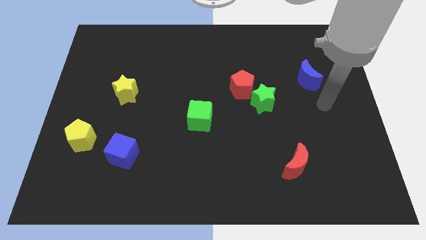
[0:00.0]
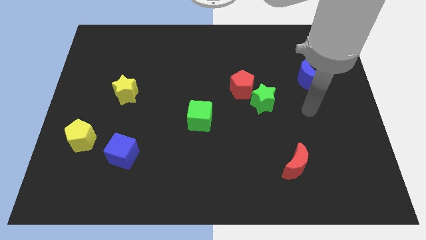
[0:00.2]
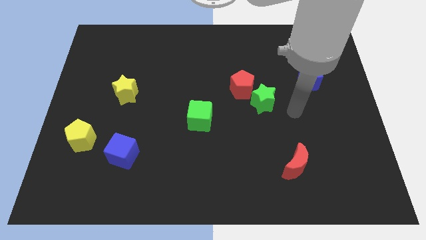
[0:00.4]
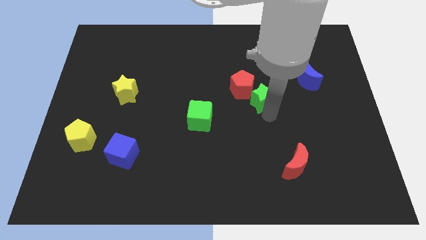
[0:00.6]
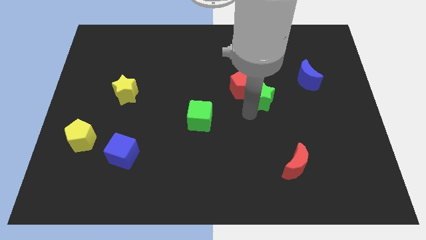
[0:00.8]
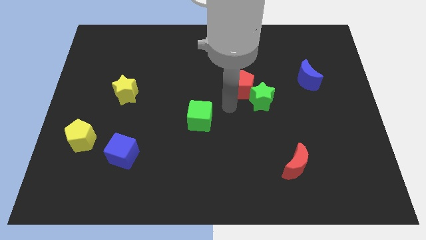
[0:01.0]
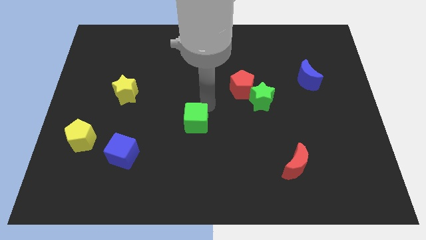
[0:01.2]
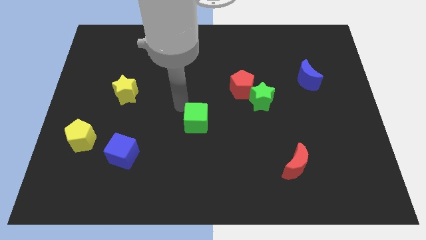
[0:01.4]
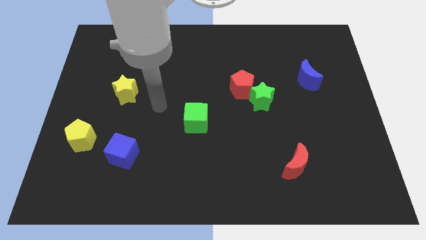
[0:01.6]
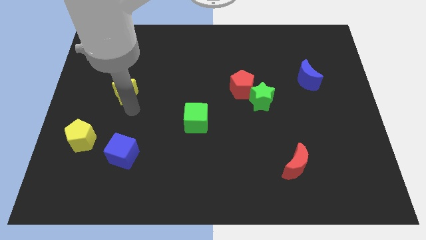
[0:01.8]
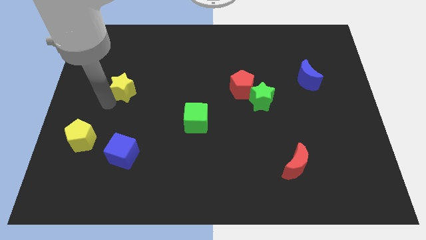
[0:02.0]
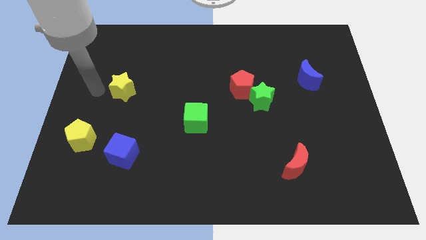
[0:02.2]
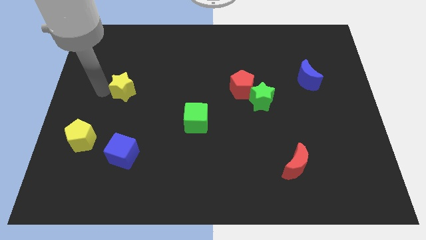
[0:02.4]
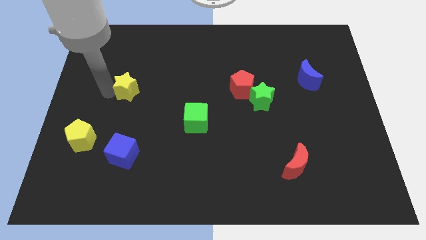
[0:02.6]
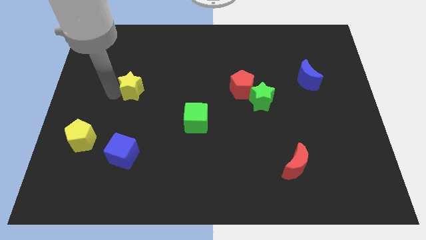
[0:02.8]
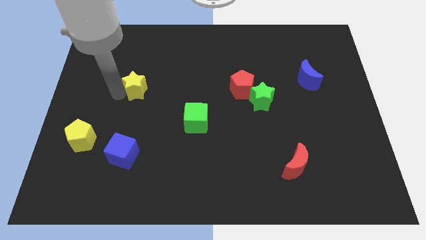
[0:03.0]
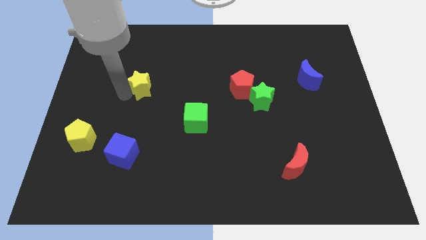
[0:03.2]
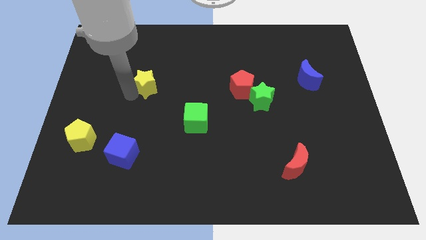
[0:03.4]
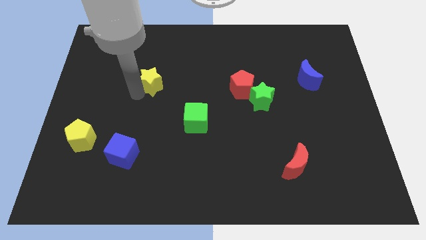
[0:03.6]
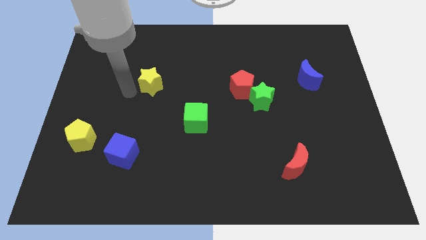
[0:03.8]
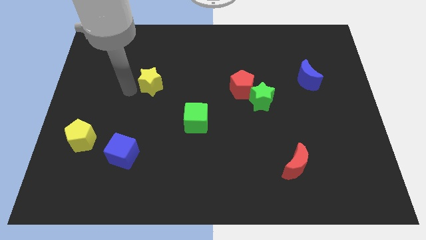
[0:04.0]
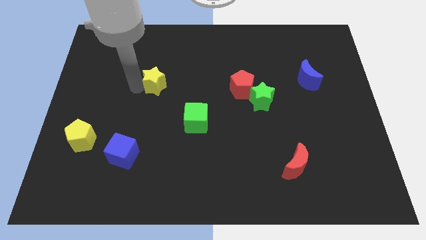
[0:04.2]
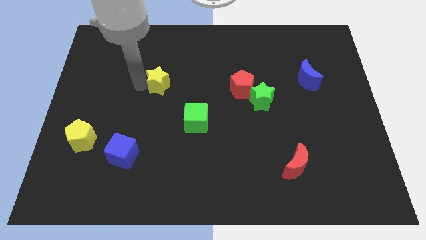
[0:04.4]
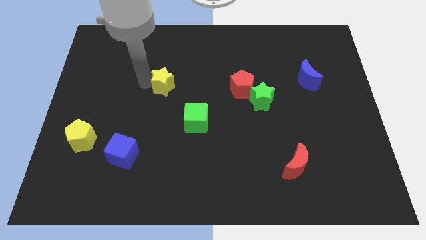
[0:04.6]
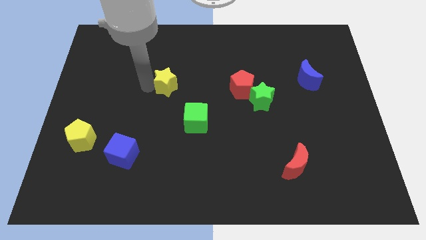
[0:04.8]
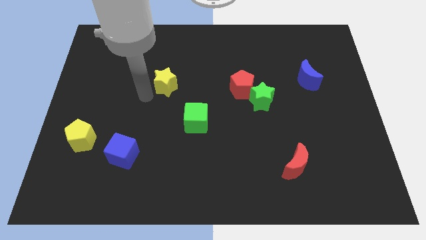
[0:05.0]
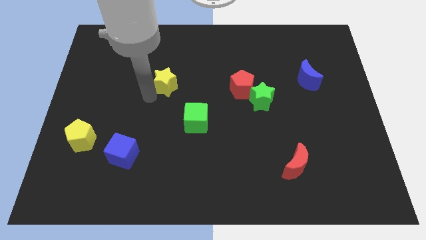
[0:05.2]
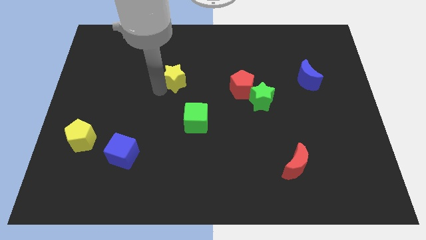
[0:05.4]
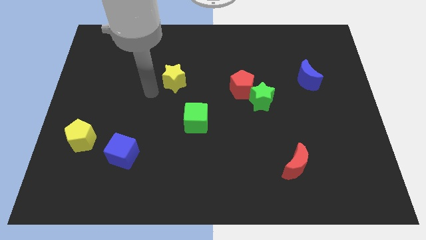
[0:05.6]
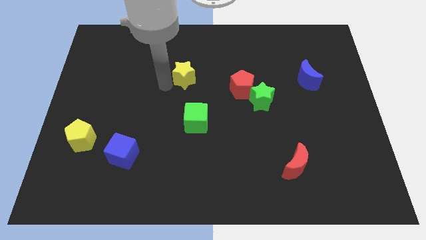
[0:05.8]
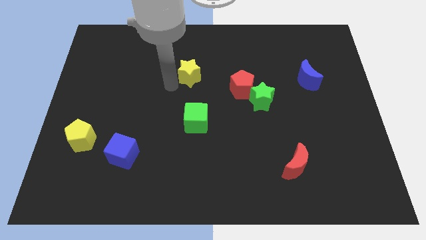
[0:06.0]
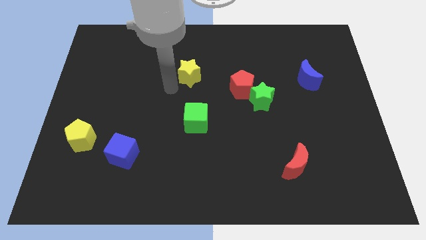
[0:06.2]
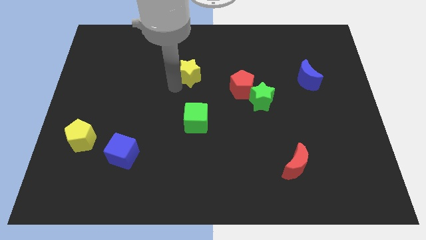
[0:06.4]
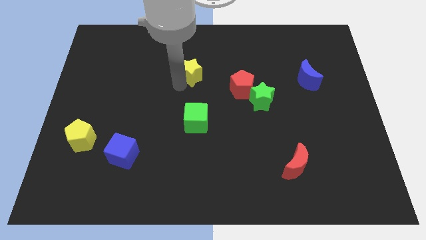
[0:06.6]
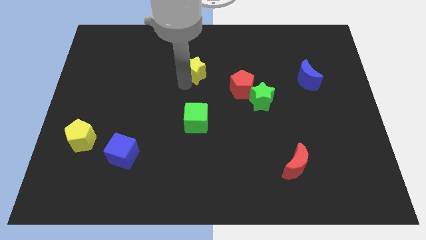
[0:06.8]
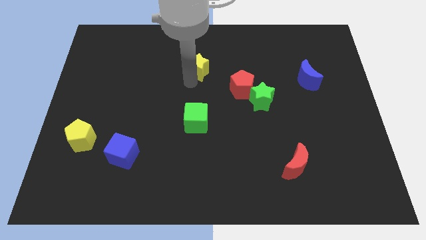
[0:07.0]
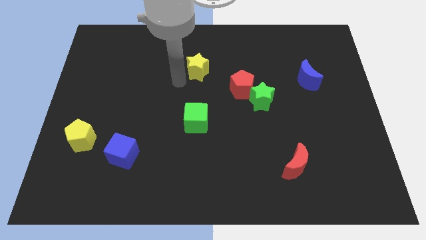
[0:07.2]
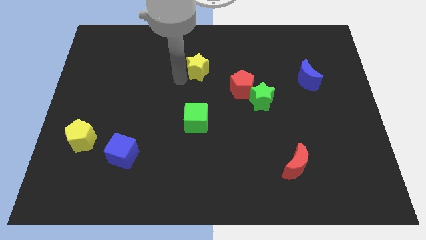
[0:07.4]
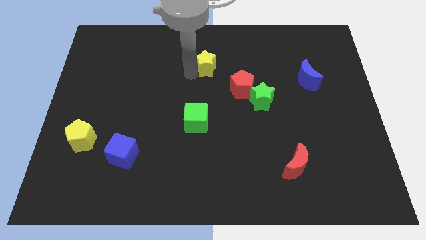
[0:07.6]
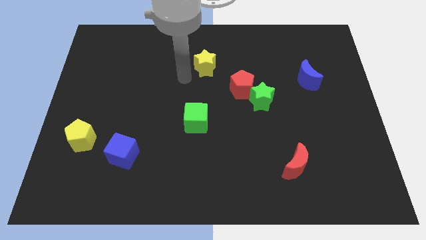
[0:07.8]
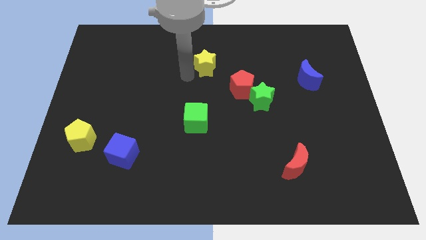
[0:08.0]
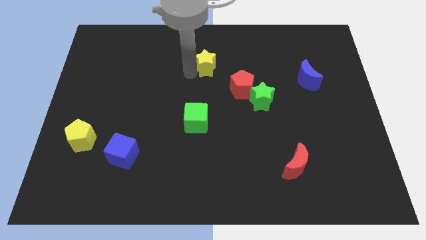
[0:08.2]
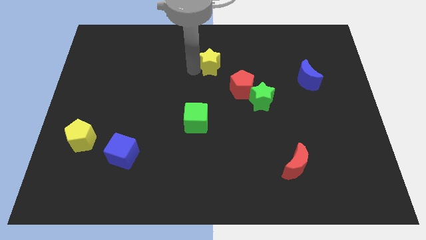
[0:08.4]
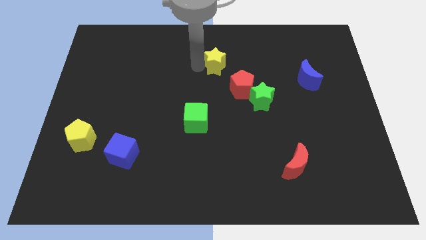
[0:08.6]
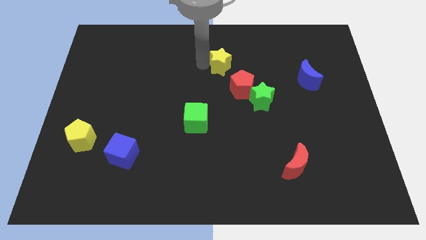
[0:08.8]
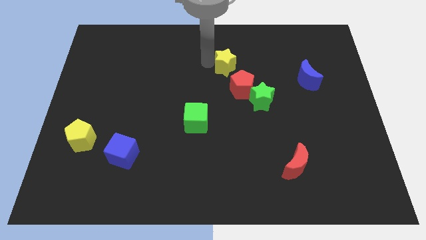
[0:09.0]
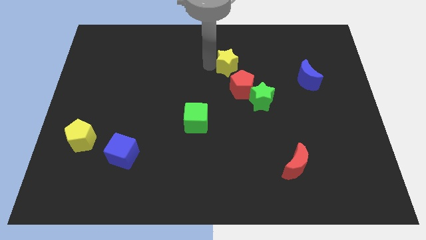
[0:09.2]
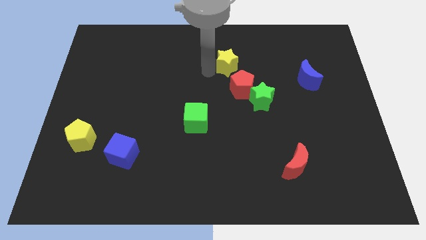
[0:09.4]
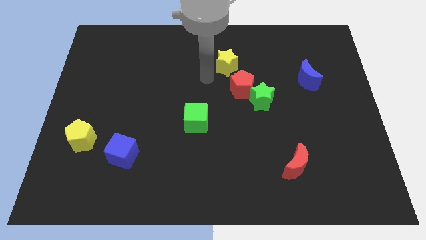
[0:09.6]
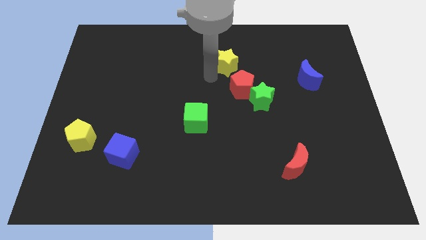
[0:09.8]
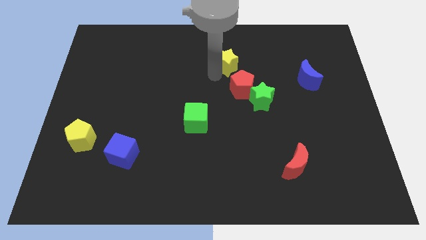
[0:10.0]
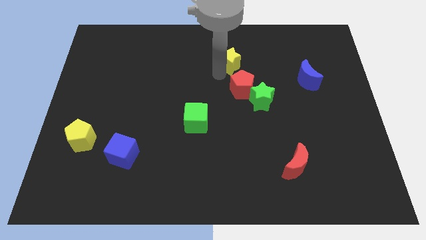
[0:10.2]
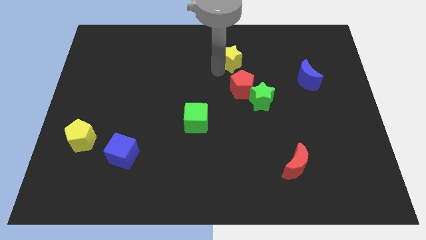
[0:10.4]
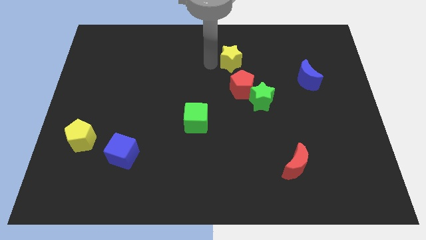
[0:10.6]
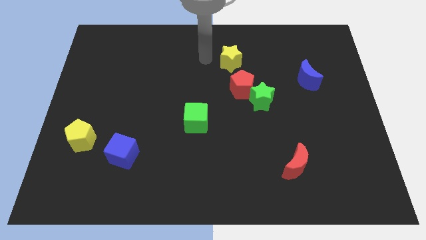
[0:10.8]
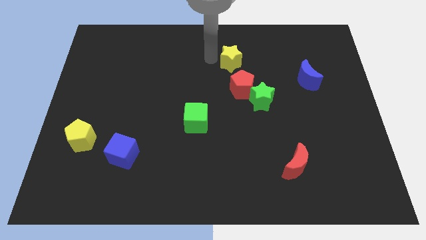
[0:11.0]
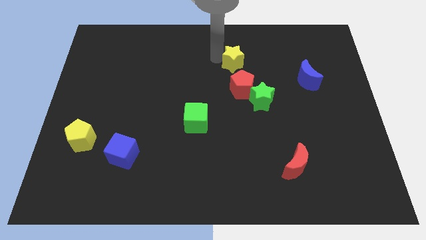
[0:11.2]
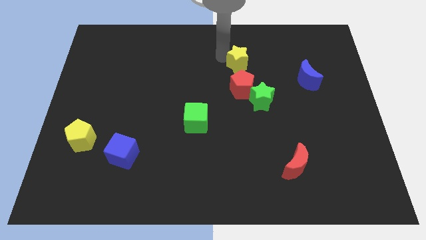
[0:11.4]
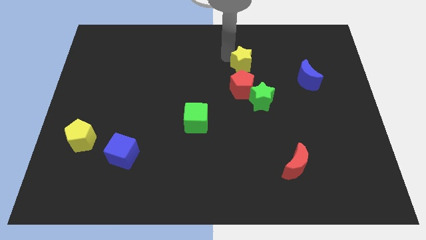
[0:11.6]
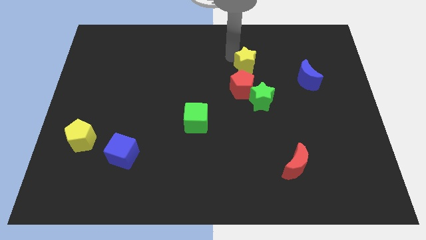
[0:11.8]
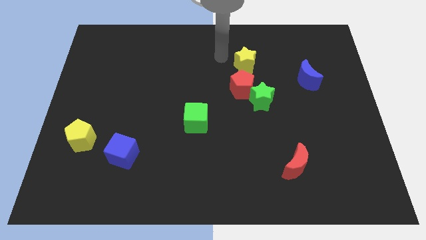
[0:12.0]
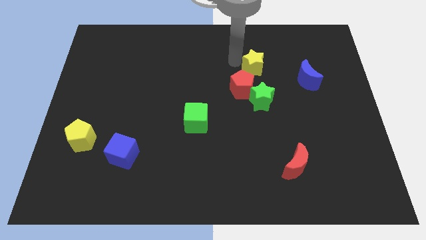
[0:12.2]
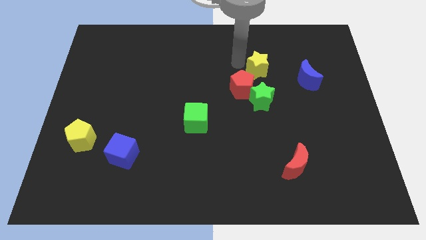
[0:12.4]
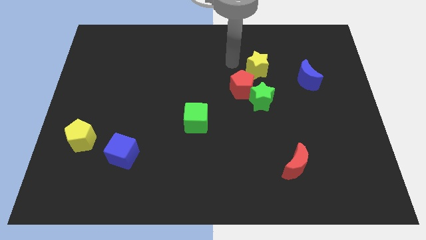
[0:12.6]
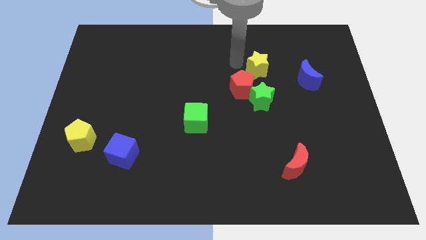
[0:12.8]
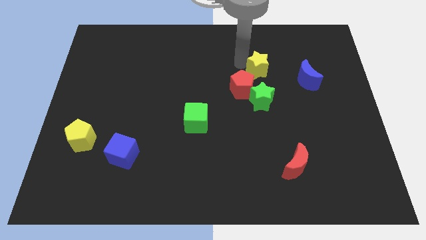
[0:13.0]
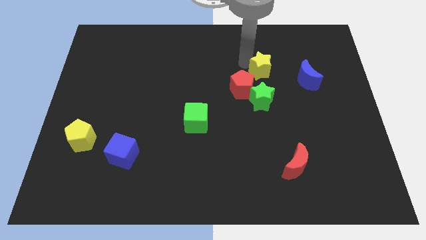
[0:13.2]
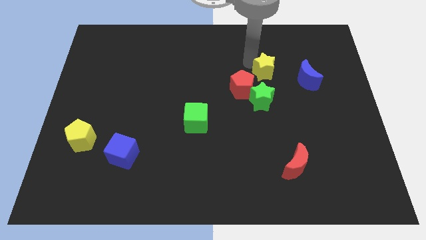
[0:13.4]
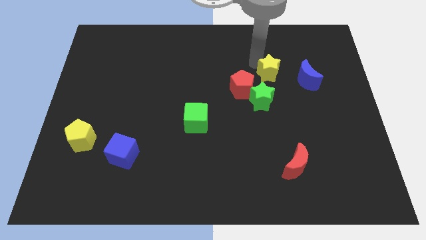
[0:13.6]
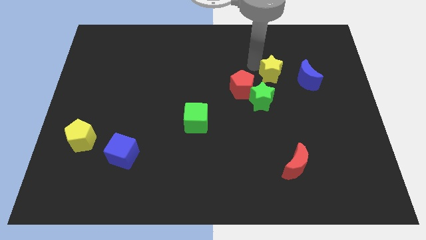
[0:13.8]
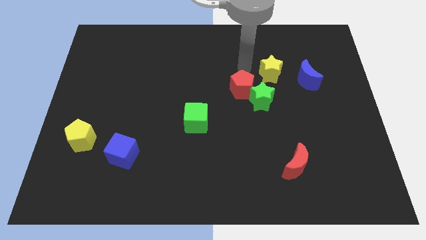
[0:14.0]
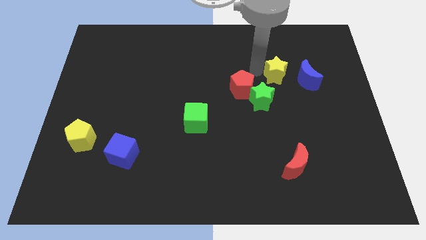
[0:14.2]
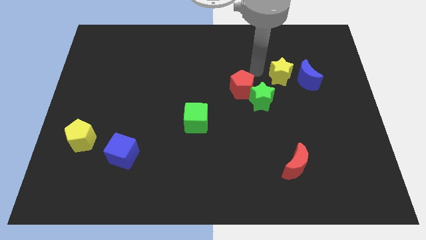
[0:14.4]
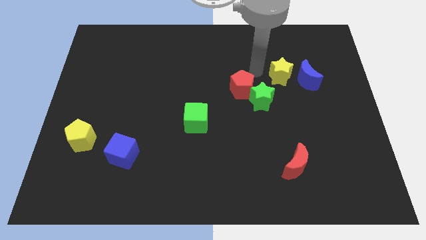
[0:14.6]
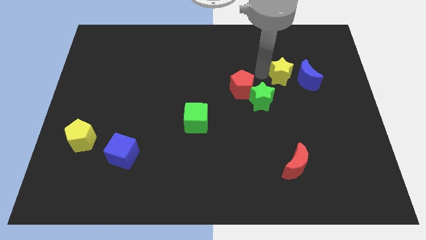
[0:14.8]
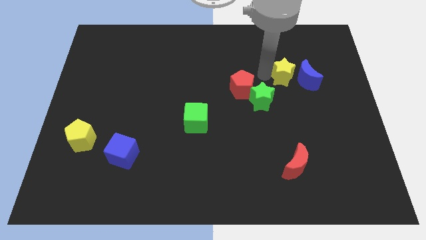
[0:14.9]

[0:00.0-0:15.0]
put the yellow star to the blue moon
